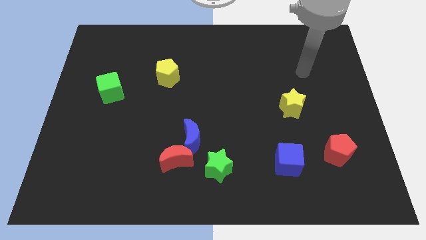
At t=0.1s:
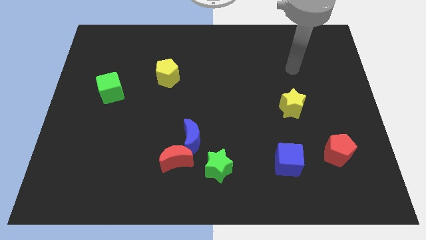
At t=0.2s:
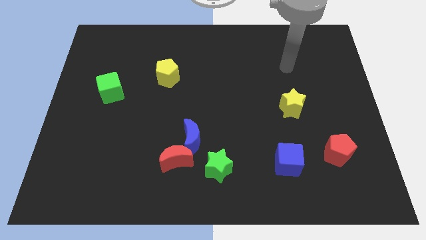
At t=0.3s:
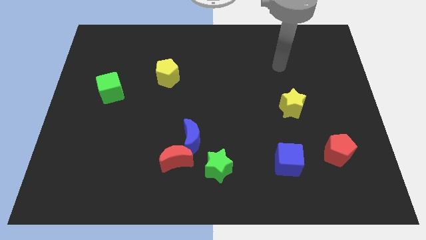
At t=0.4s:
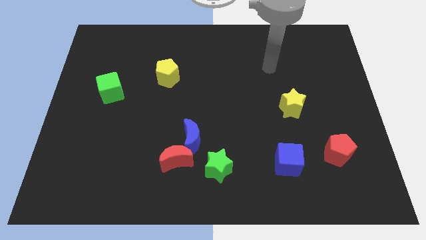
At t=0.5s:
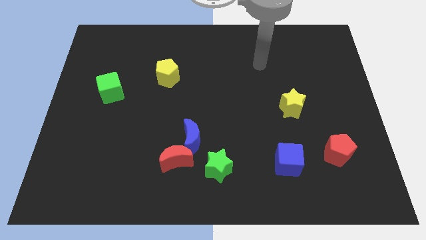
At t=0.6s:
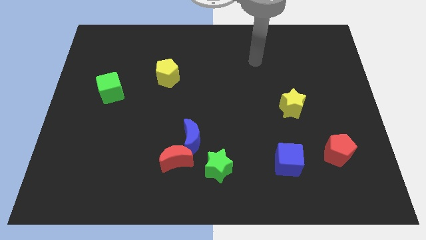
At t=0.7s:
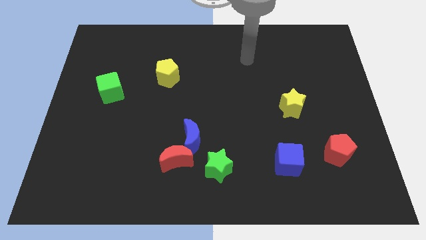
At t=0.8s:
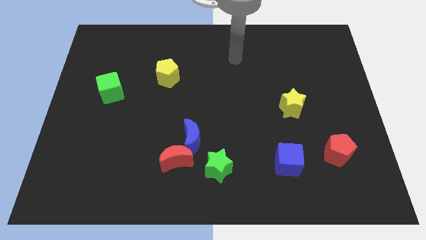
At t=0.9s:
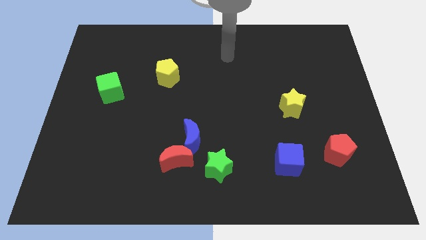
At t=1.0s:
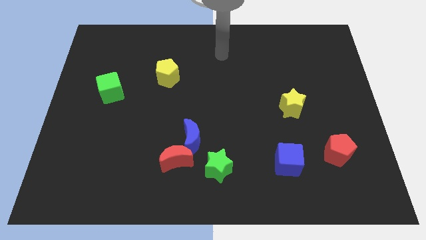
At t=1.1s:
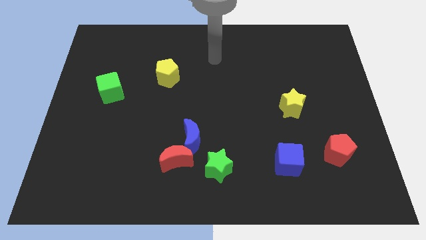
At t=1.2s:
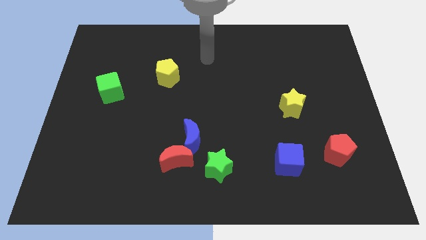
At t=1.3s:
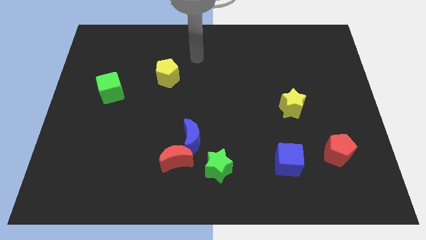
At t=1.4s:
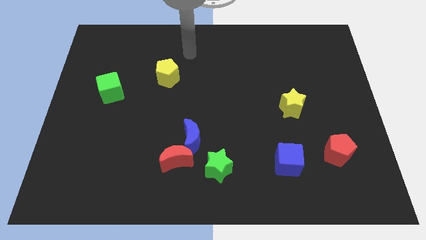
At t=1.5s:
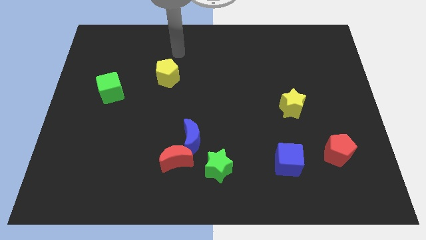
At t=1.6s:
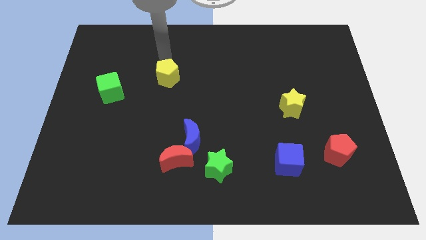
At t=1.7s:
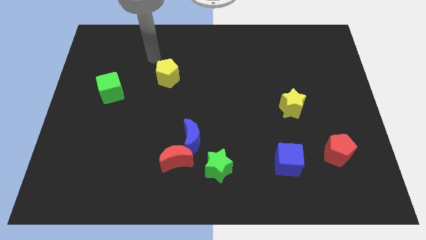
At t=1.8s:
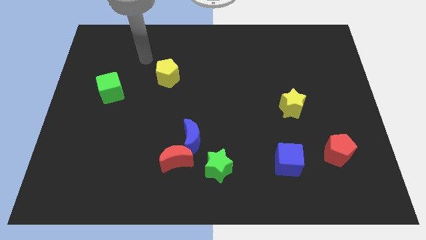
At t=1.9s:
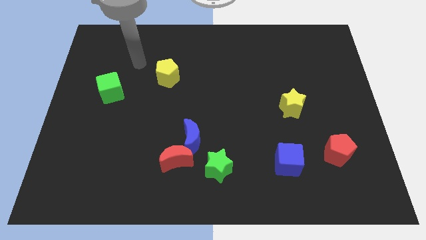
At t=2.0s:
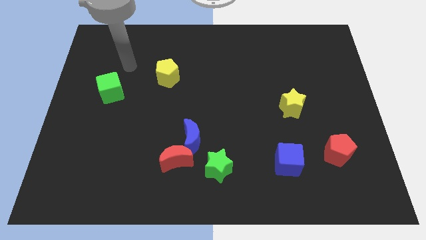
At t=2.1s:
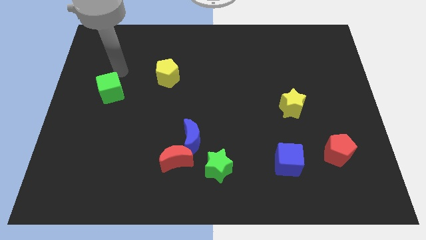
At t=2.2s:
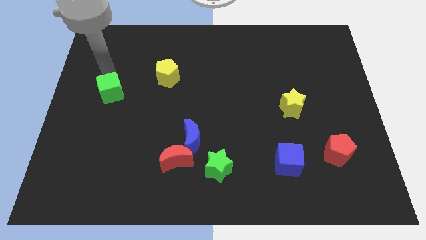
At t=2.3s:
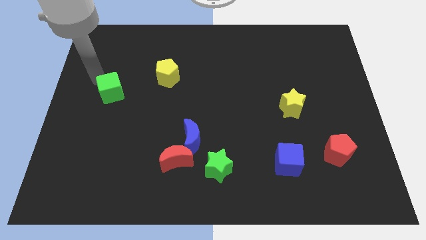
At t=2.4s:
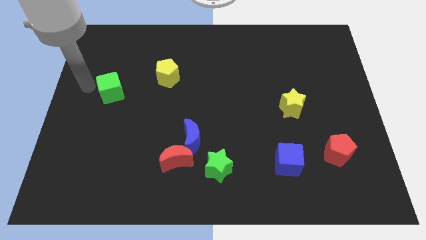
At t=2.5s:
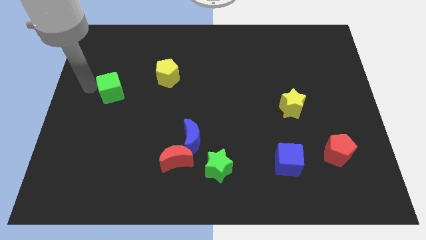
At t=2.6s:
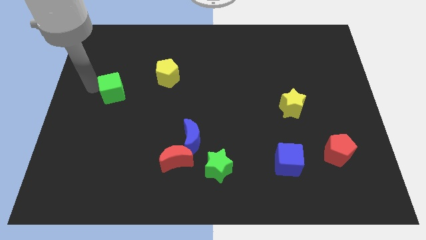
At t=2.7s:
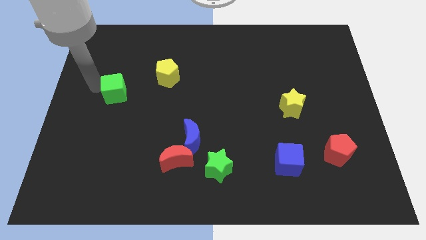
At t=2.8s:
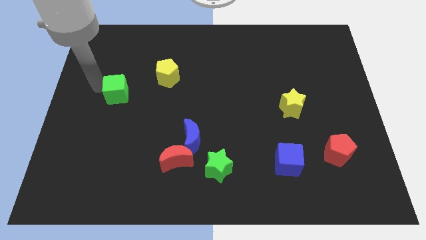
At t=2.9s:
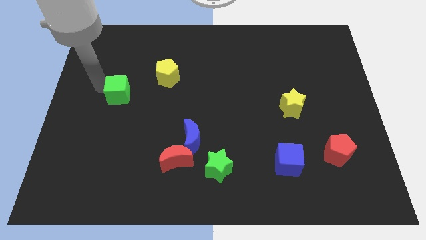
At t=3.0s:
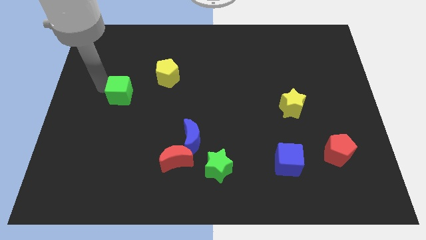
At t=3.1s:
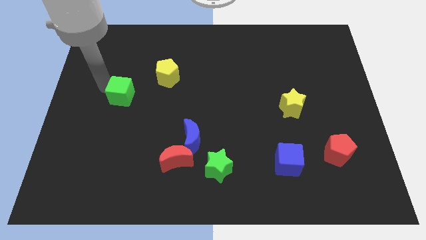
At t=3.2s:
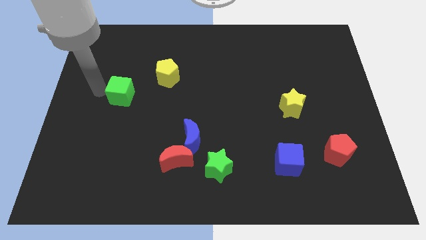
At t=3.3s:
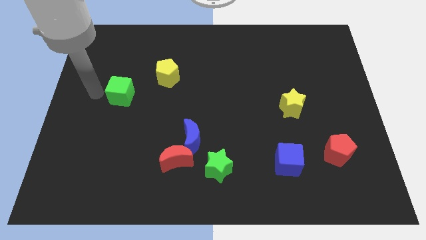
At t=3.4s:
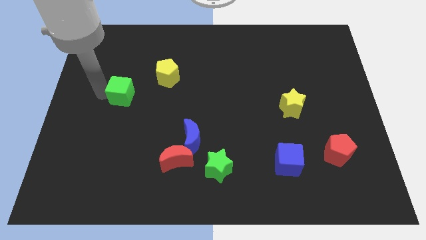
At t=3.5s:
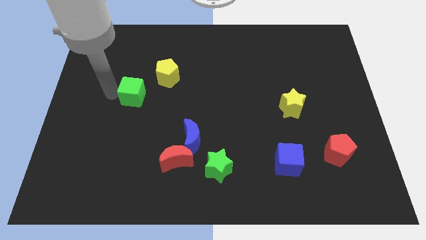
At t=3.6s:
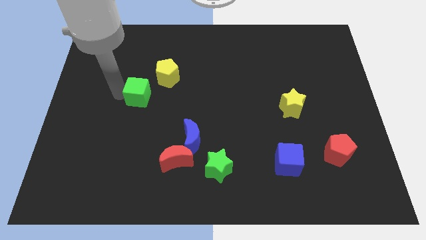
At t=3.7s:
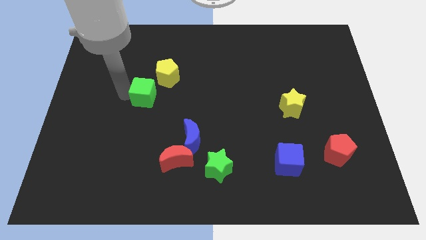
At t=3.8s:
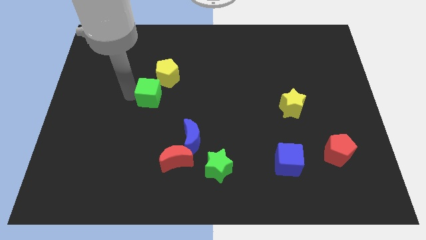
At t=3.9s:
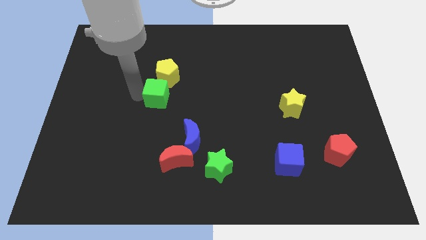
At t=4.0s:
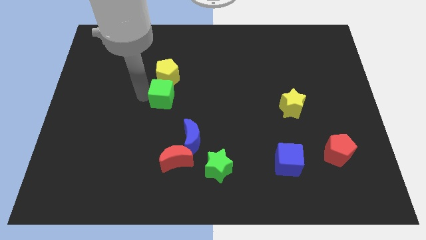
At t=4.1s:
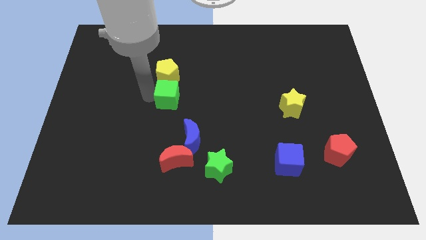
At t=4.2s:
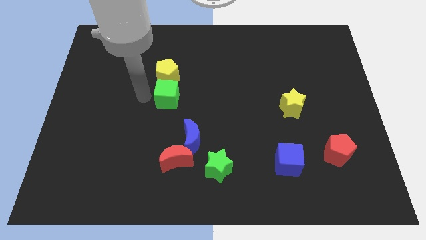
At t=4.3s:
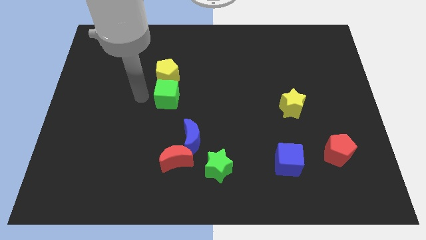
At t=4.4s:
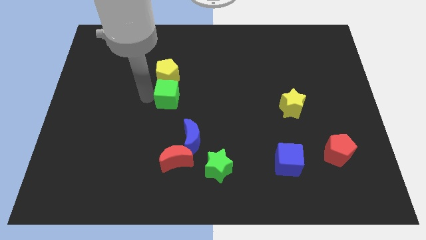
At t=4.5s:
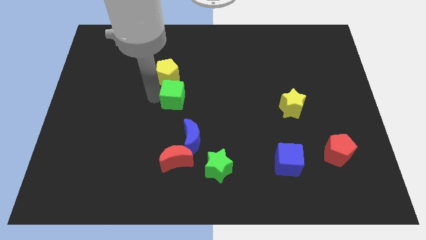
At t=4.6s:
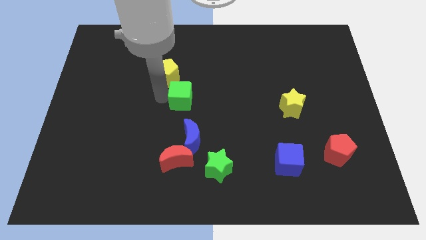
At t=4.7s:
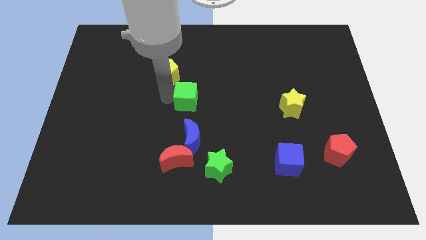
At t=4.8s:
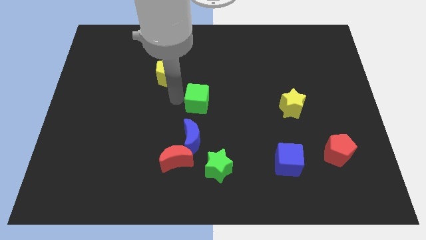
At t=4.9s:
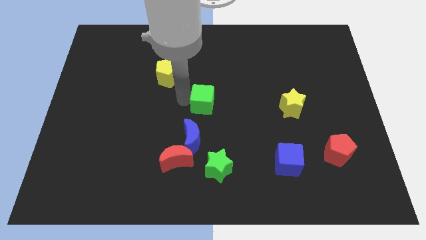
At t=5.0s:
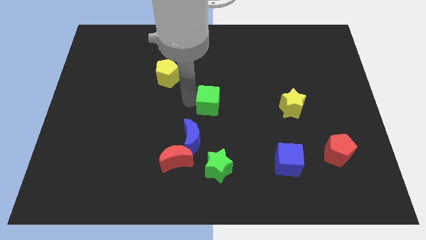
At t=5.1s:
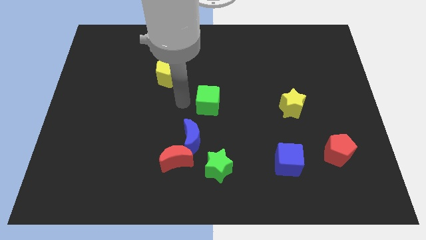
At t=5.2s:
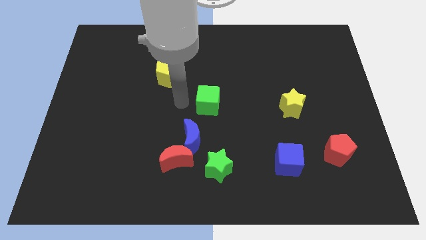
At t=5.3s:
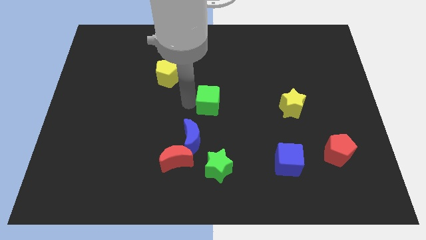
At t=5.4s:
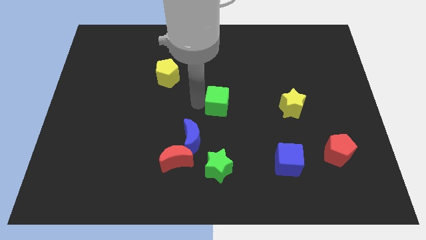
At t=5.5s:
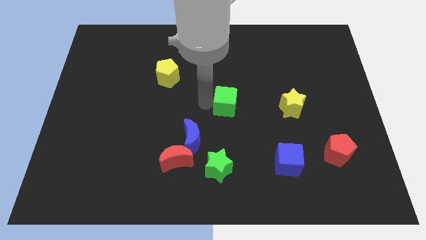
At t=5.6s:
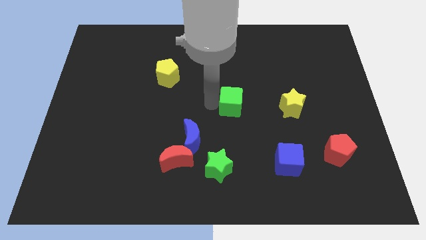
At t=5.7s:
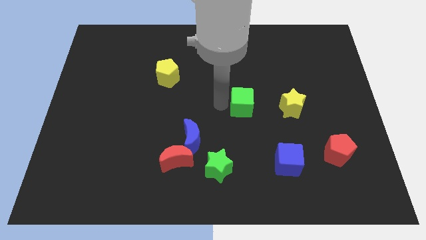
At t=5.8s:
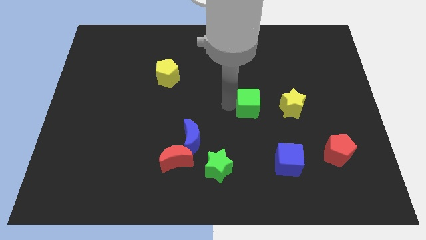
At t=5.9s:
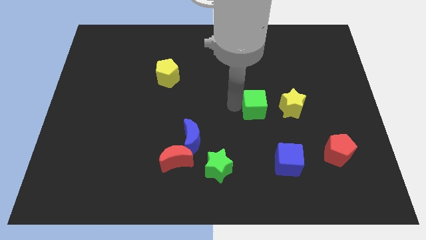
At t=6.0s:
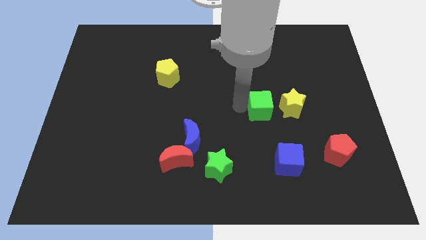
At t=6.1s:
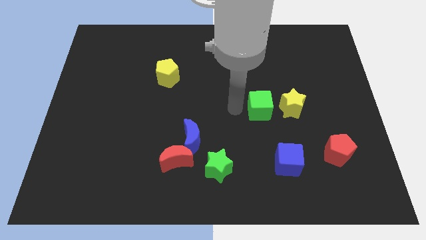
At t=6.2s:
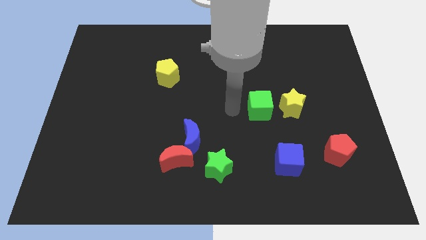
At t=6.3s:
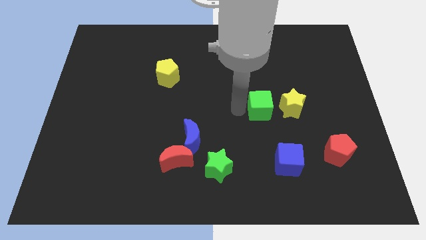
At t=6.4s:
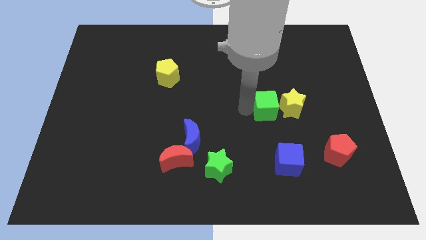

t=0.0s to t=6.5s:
push the green cube to the yellow star

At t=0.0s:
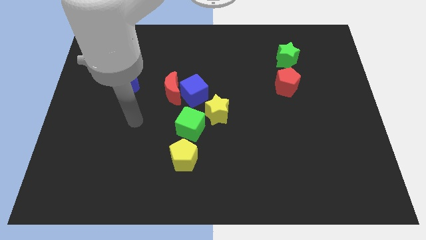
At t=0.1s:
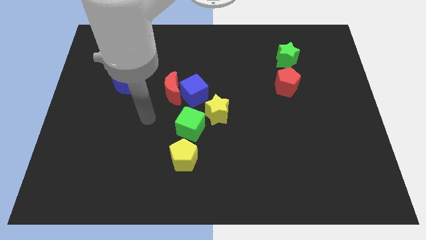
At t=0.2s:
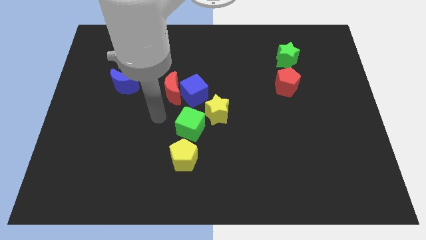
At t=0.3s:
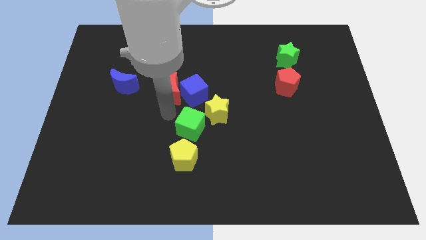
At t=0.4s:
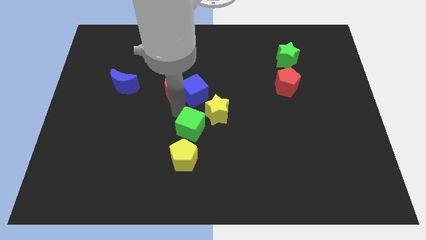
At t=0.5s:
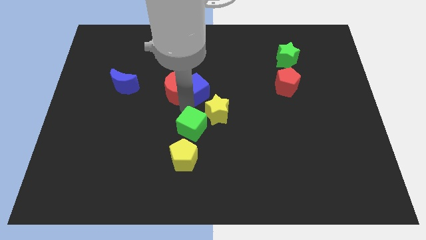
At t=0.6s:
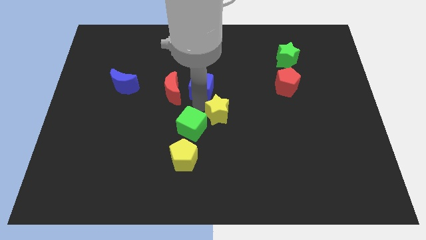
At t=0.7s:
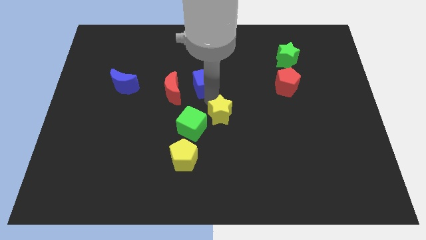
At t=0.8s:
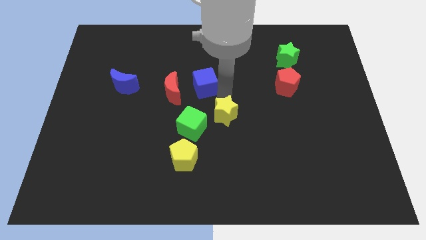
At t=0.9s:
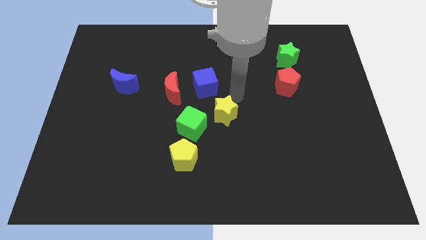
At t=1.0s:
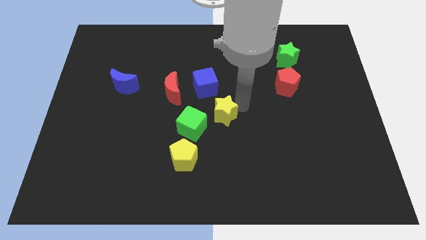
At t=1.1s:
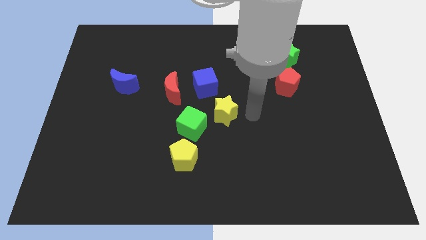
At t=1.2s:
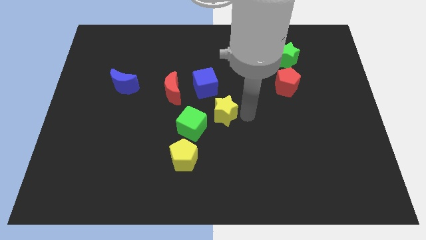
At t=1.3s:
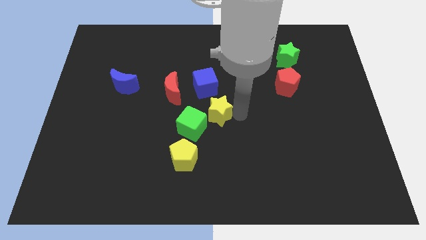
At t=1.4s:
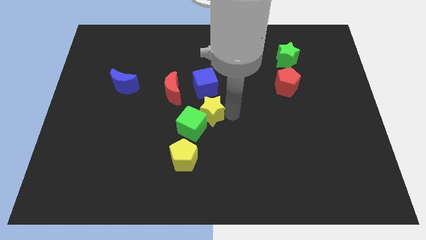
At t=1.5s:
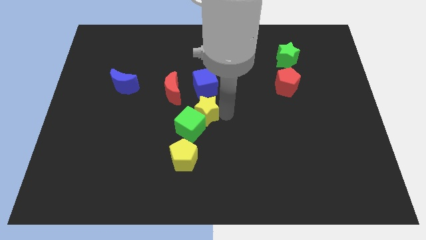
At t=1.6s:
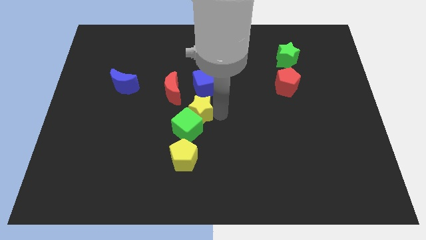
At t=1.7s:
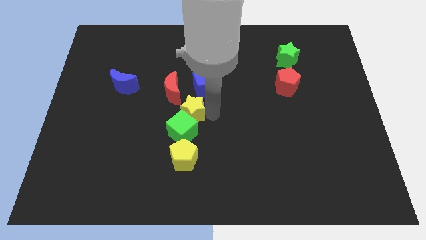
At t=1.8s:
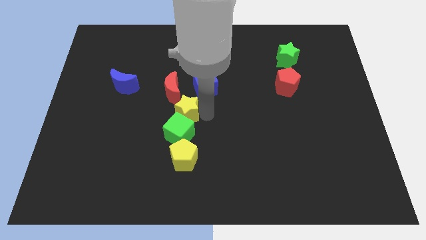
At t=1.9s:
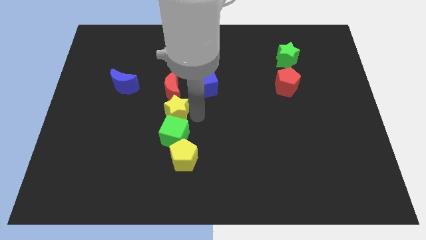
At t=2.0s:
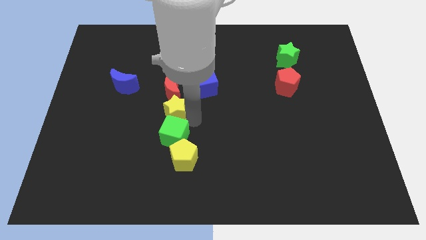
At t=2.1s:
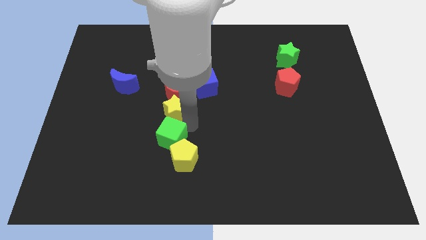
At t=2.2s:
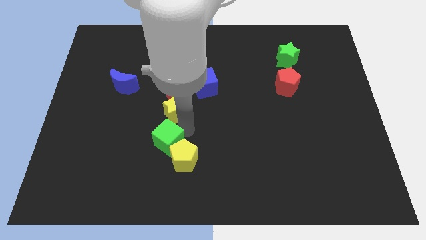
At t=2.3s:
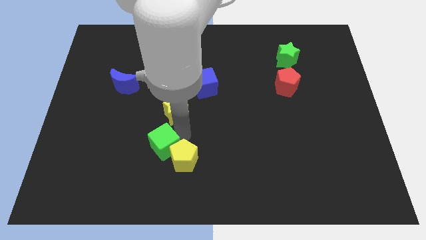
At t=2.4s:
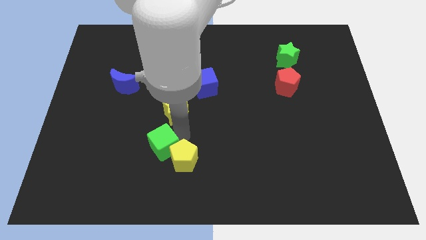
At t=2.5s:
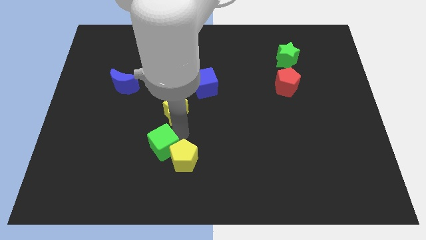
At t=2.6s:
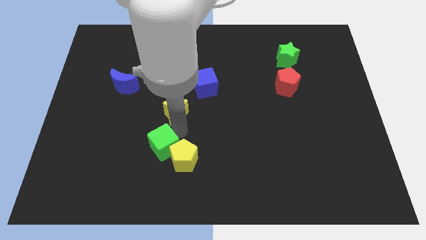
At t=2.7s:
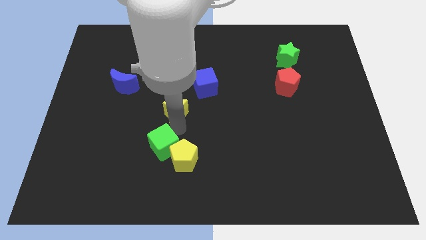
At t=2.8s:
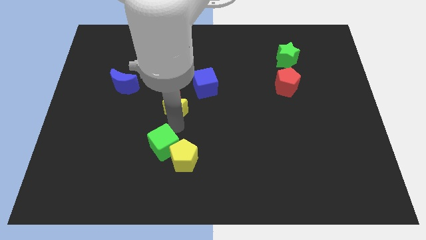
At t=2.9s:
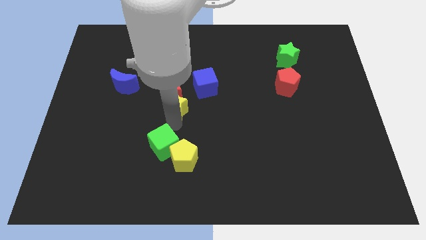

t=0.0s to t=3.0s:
put the yellow star close to the red moon
